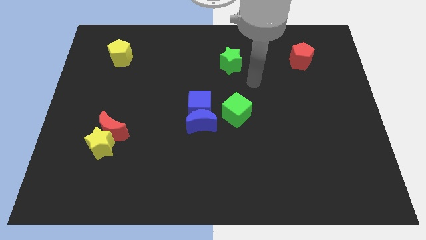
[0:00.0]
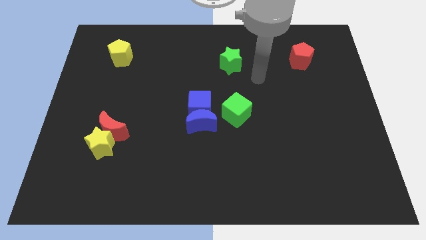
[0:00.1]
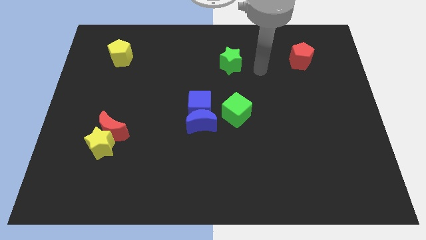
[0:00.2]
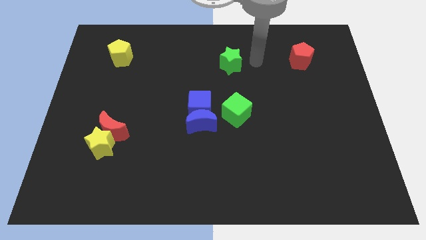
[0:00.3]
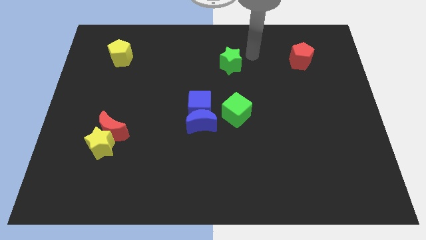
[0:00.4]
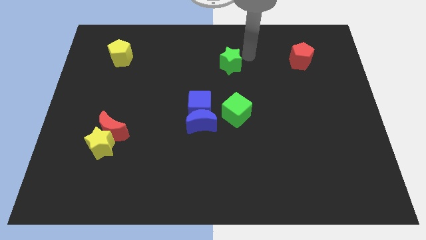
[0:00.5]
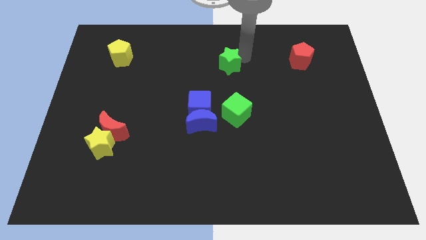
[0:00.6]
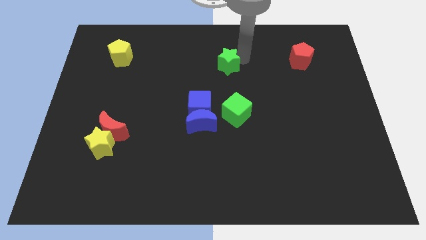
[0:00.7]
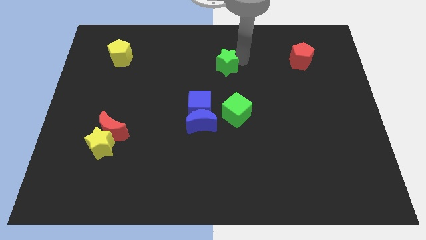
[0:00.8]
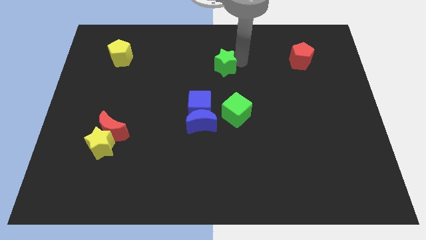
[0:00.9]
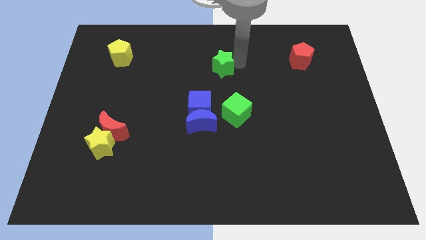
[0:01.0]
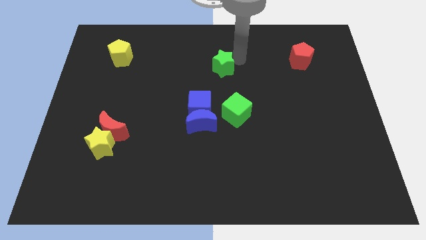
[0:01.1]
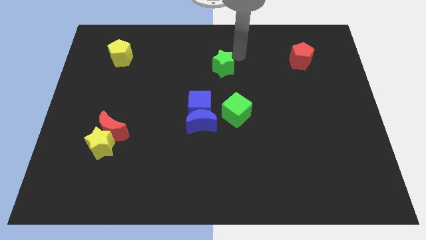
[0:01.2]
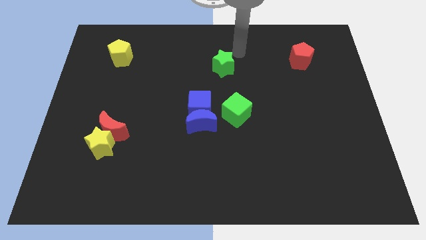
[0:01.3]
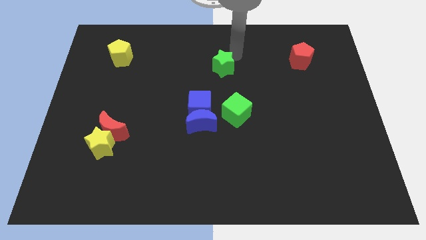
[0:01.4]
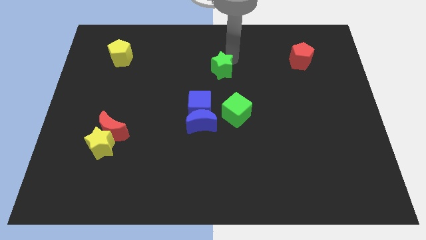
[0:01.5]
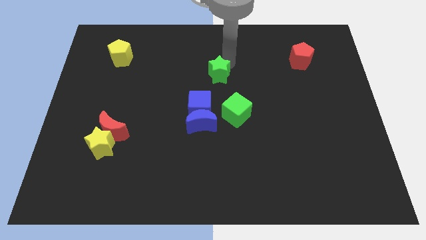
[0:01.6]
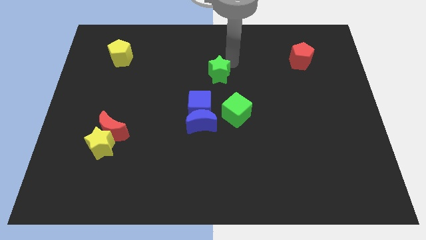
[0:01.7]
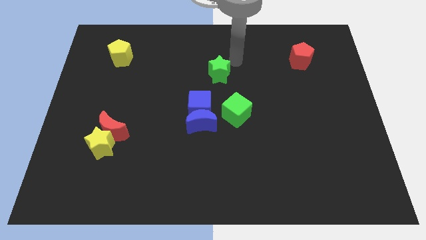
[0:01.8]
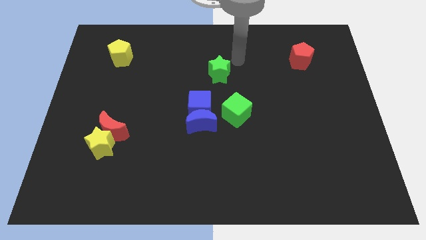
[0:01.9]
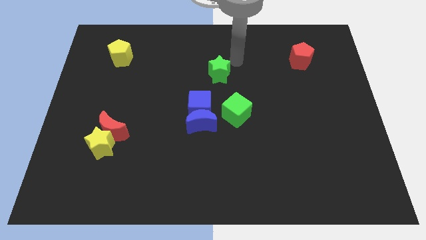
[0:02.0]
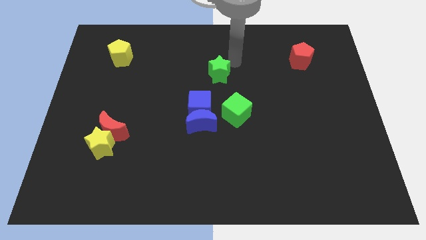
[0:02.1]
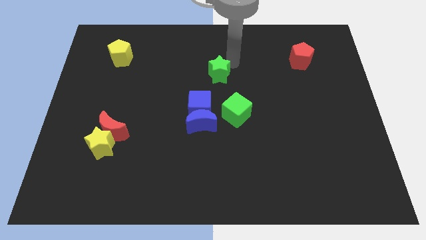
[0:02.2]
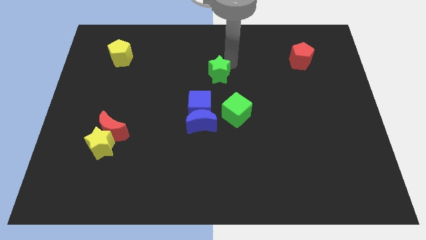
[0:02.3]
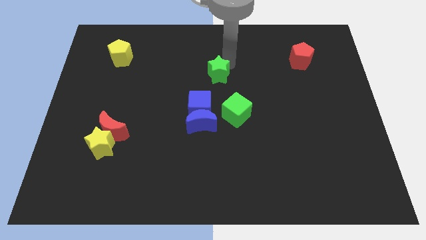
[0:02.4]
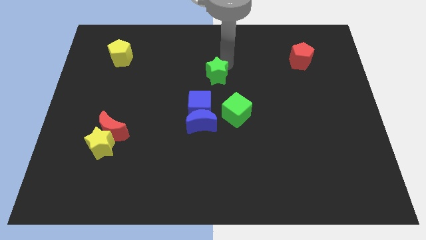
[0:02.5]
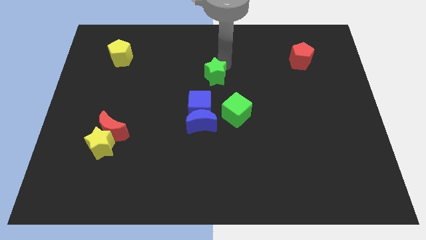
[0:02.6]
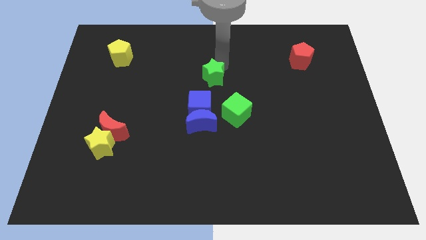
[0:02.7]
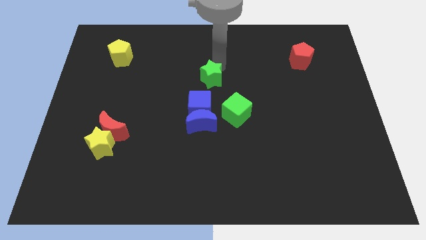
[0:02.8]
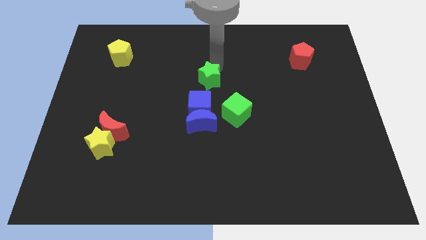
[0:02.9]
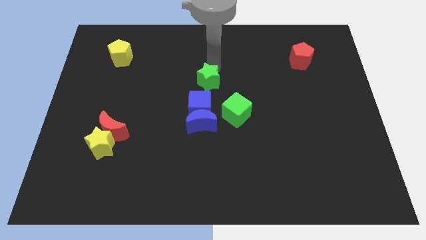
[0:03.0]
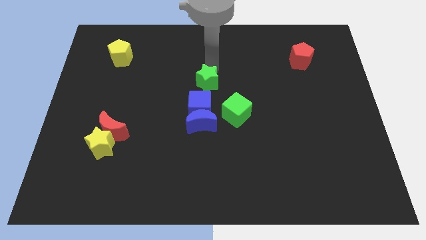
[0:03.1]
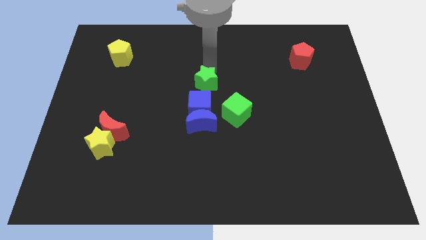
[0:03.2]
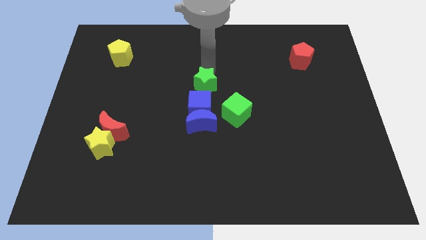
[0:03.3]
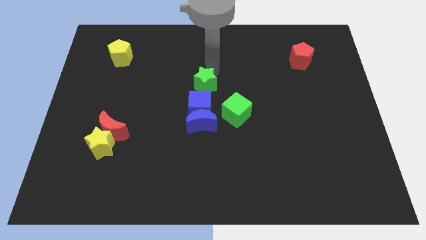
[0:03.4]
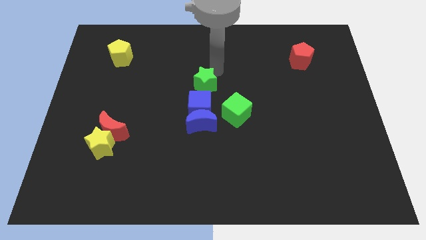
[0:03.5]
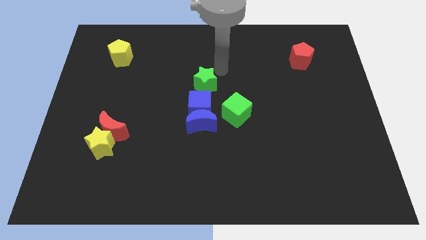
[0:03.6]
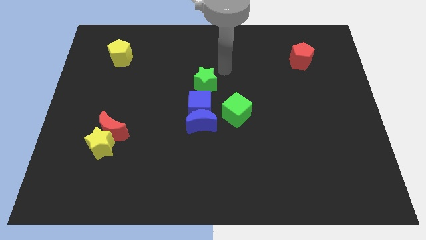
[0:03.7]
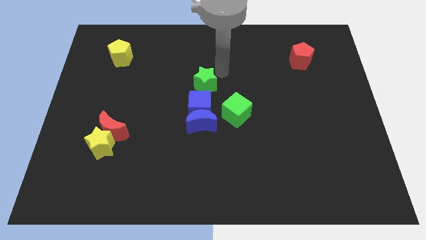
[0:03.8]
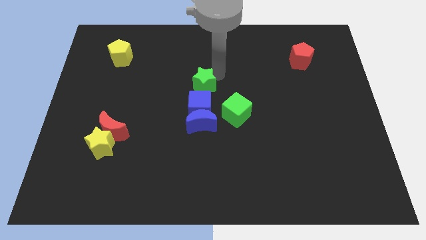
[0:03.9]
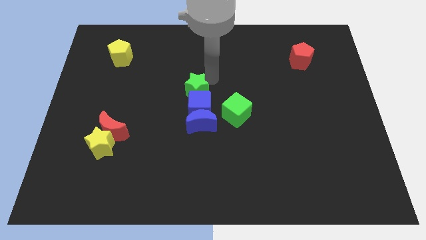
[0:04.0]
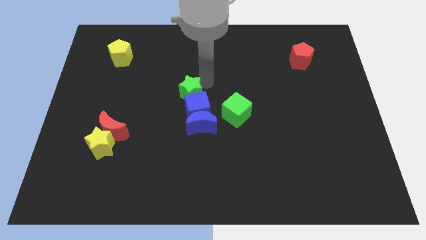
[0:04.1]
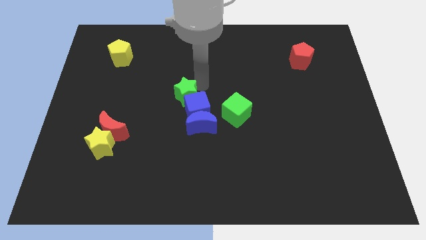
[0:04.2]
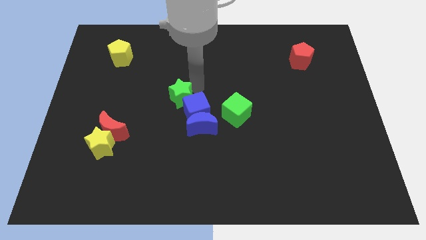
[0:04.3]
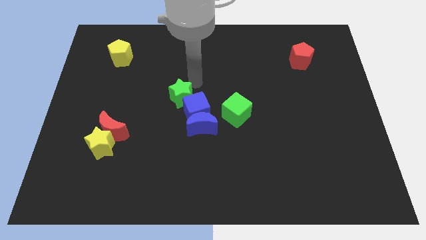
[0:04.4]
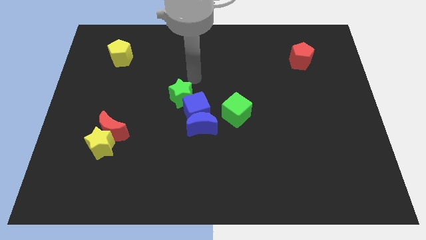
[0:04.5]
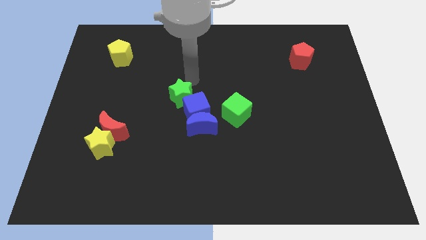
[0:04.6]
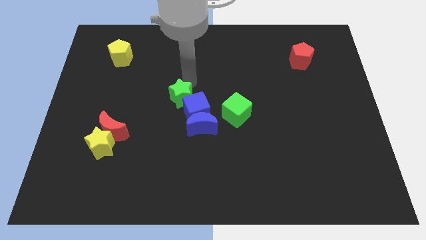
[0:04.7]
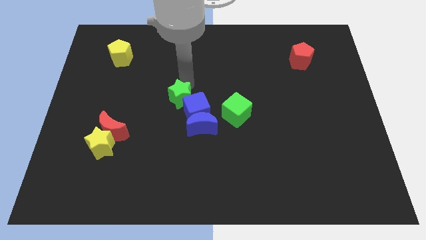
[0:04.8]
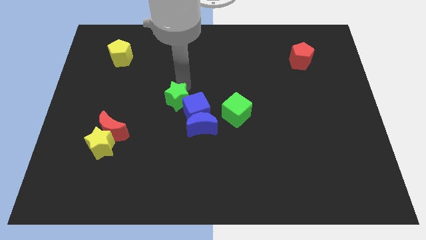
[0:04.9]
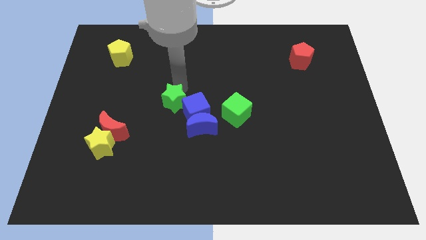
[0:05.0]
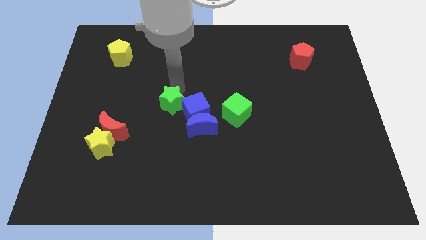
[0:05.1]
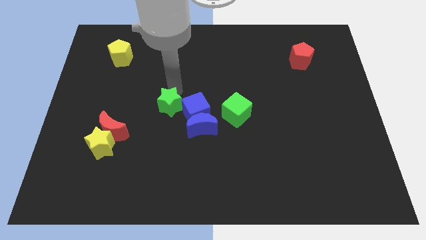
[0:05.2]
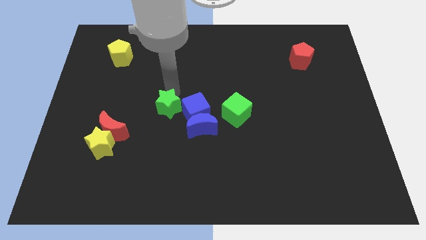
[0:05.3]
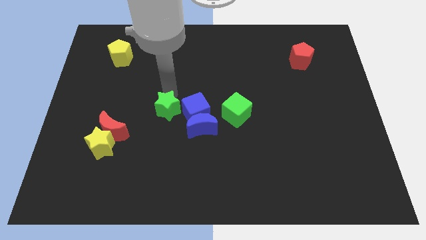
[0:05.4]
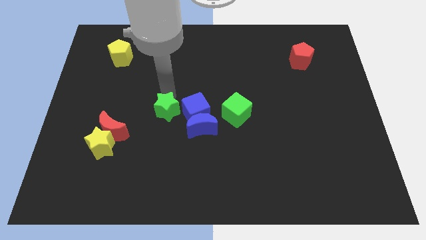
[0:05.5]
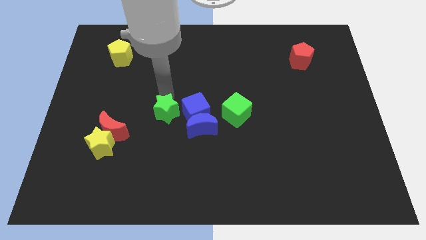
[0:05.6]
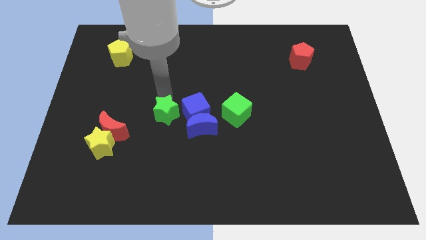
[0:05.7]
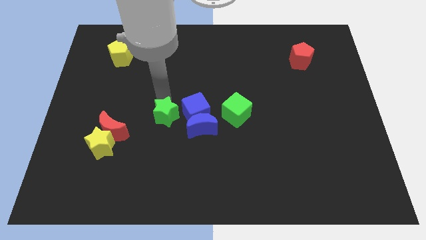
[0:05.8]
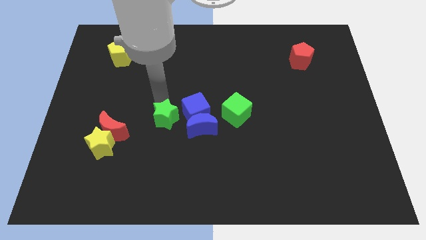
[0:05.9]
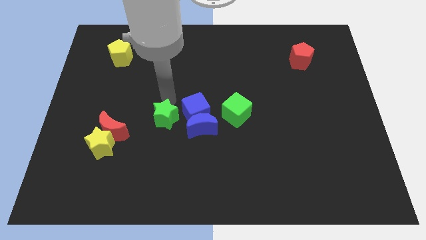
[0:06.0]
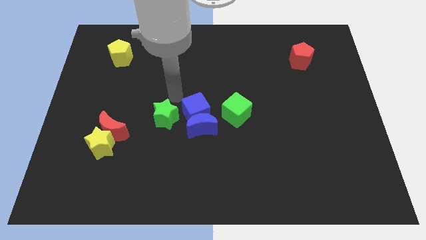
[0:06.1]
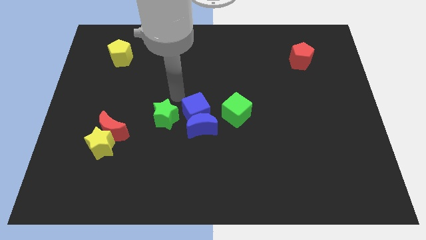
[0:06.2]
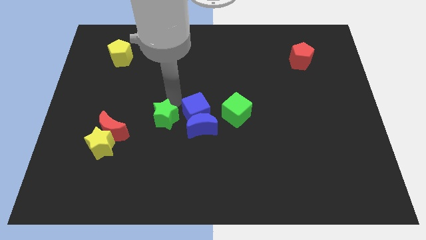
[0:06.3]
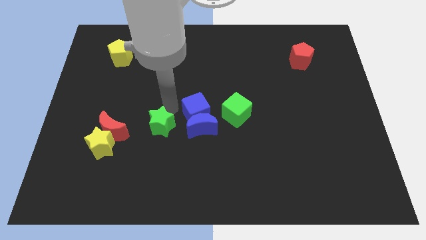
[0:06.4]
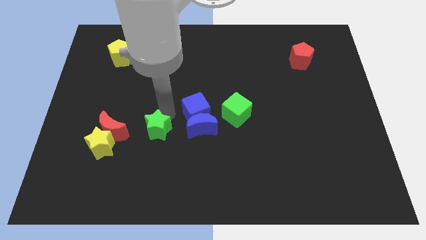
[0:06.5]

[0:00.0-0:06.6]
push the green star just right of the yellow star
